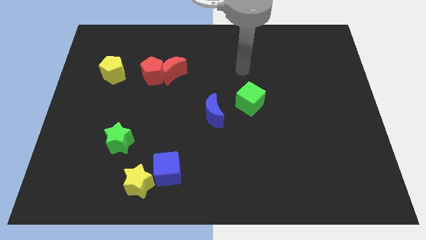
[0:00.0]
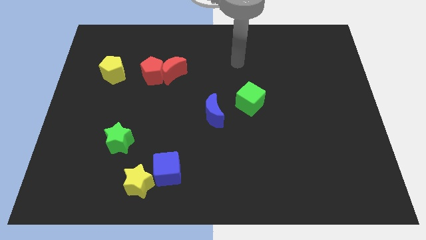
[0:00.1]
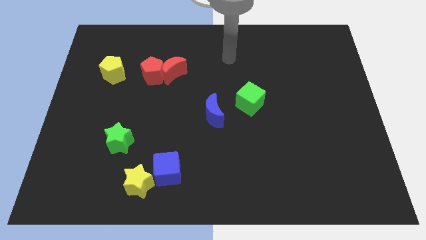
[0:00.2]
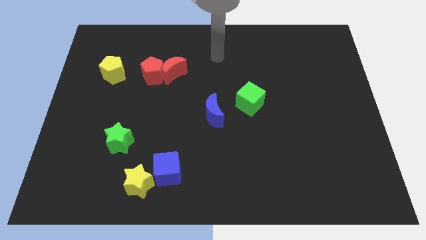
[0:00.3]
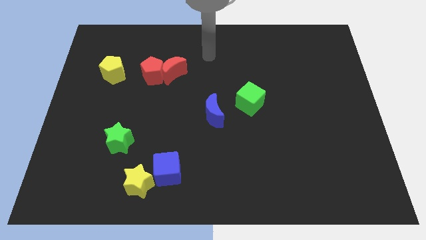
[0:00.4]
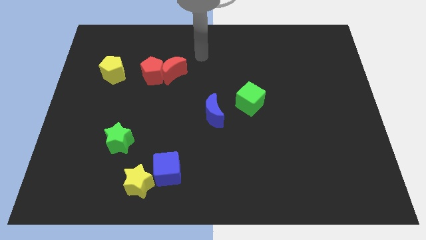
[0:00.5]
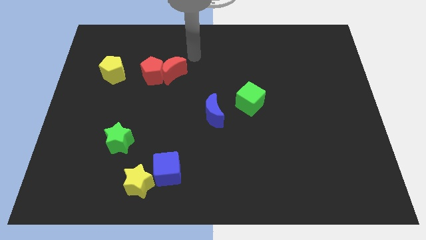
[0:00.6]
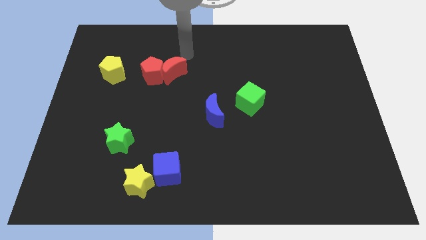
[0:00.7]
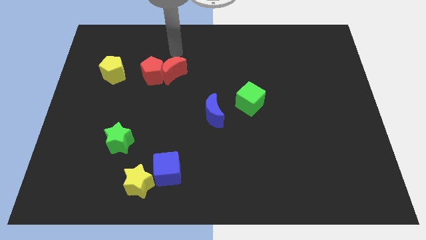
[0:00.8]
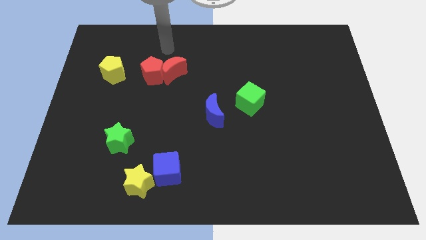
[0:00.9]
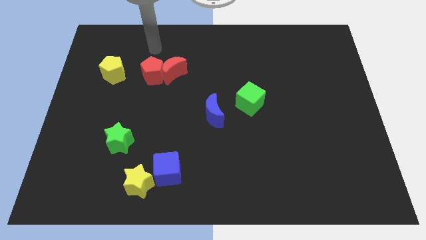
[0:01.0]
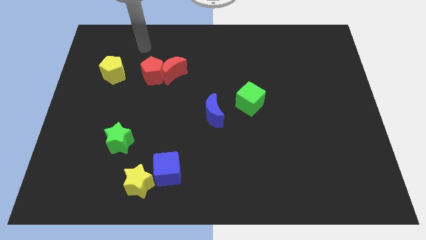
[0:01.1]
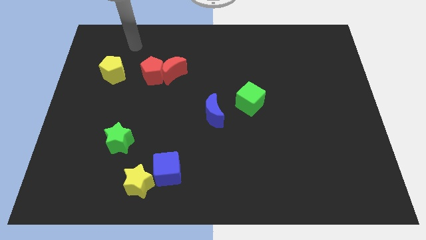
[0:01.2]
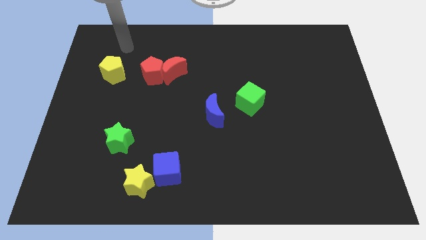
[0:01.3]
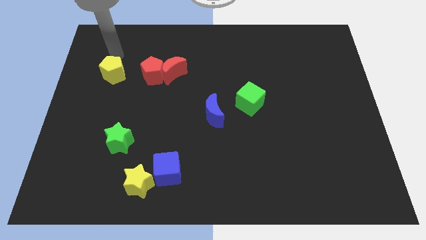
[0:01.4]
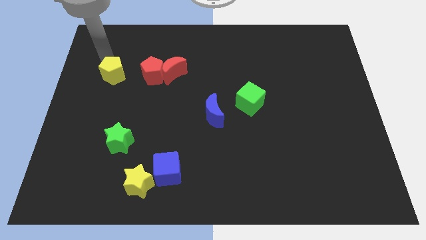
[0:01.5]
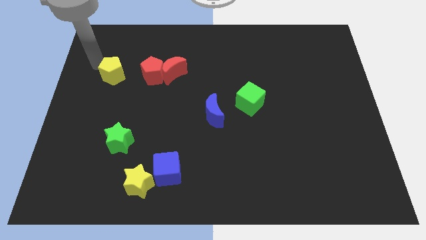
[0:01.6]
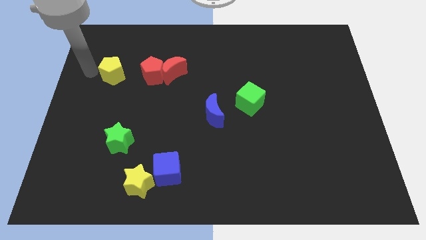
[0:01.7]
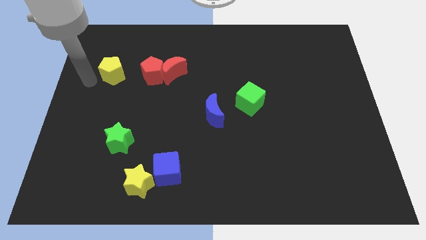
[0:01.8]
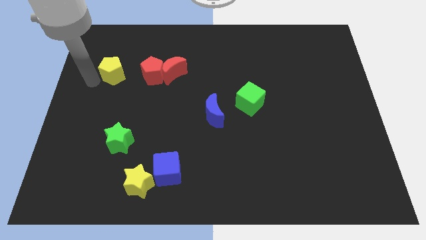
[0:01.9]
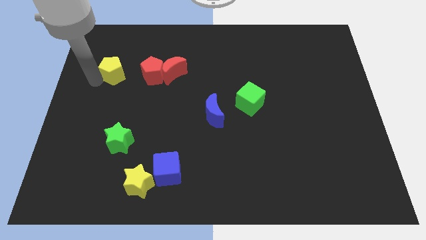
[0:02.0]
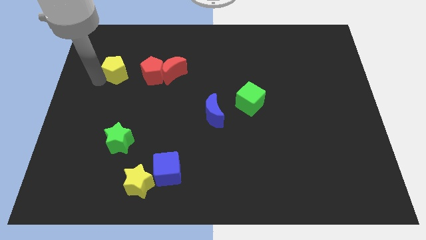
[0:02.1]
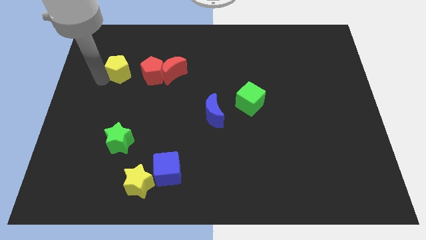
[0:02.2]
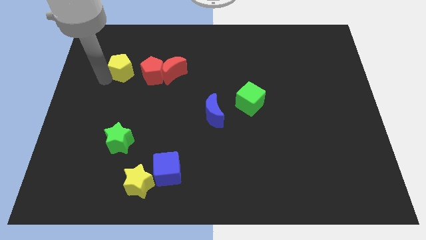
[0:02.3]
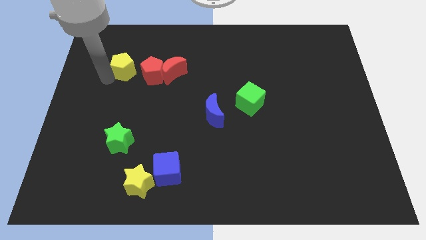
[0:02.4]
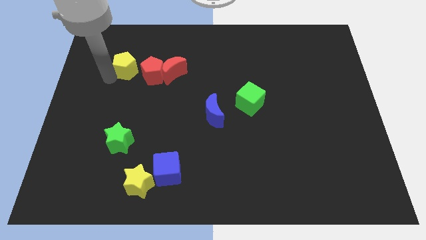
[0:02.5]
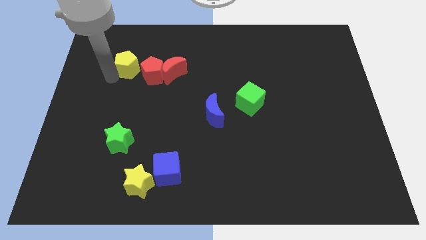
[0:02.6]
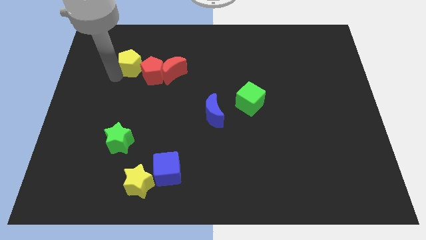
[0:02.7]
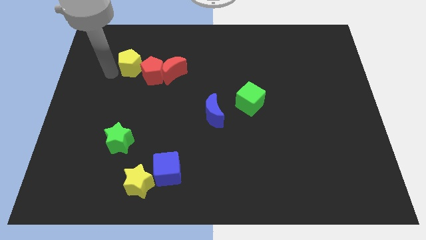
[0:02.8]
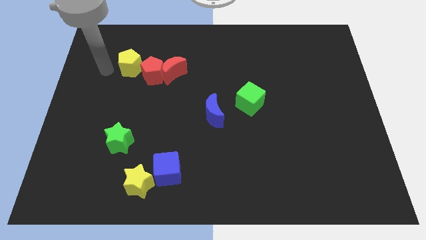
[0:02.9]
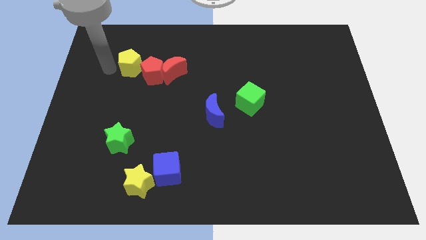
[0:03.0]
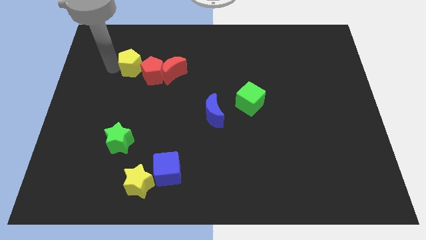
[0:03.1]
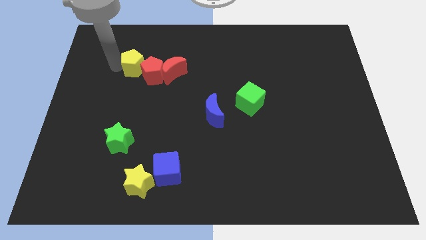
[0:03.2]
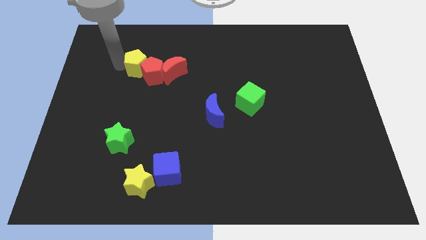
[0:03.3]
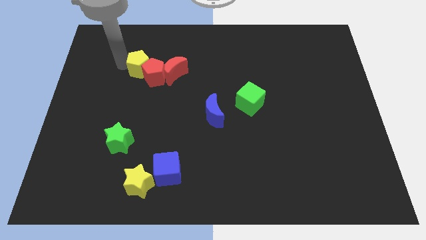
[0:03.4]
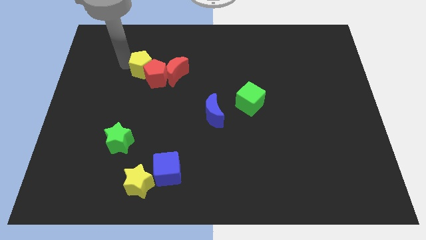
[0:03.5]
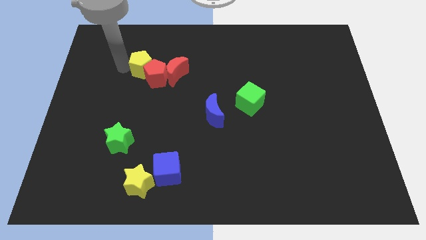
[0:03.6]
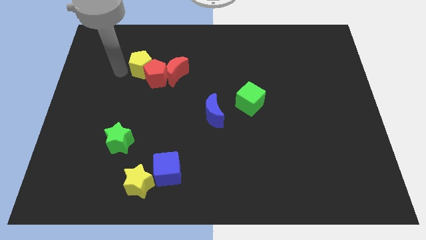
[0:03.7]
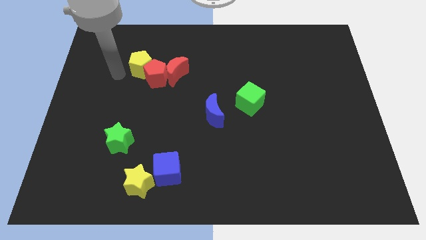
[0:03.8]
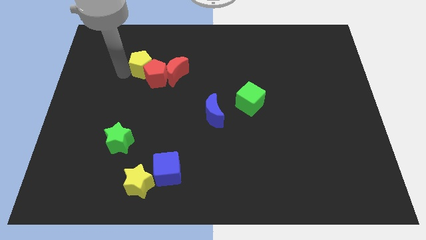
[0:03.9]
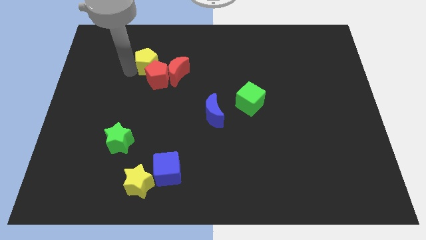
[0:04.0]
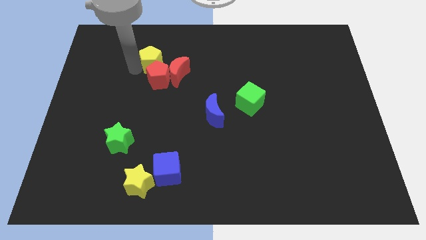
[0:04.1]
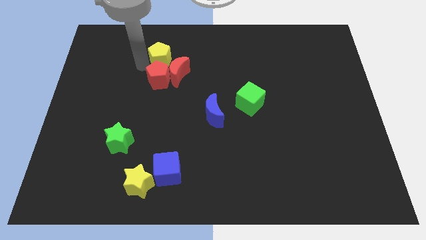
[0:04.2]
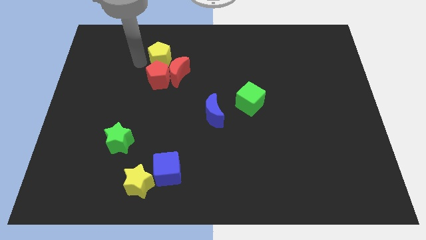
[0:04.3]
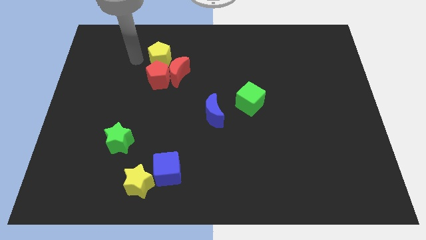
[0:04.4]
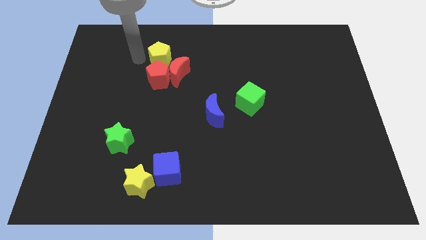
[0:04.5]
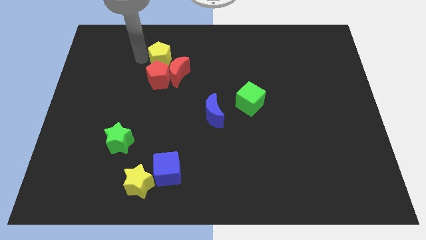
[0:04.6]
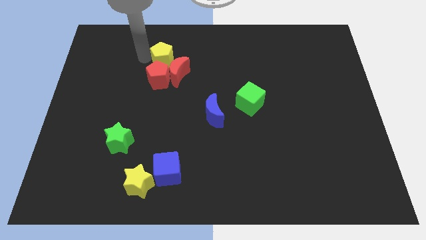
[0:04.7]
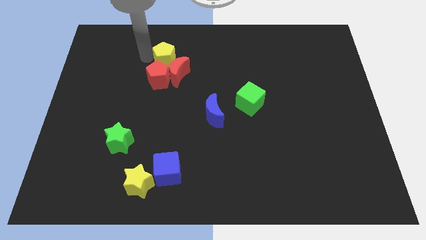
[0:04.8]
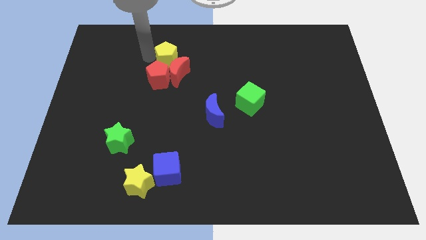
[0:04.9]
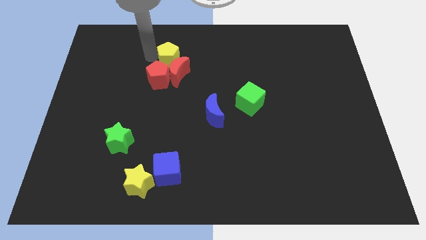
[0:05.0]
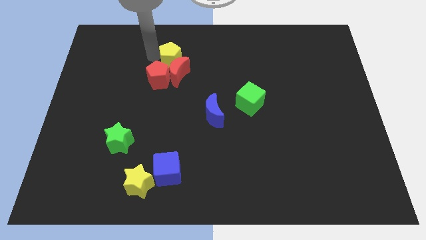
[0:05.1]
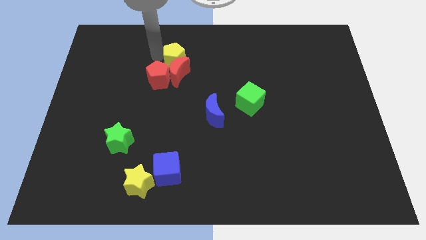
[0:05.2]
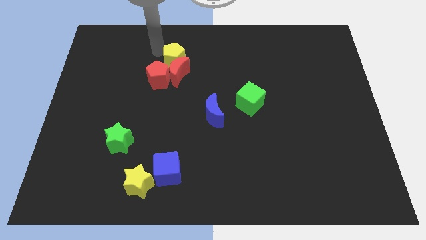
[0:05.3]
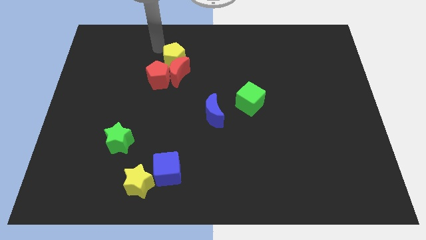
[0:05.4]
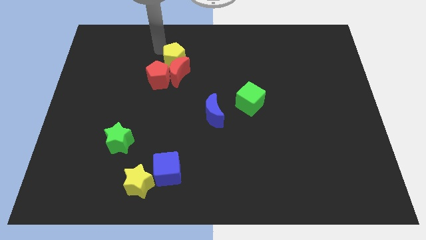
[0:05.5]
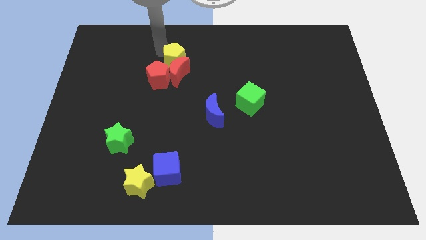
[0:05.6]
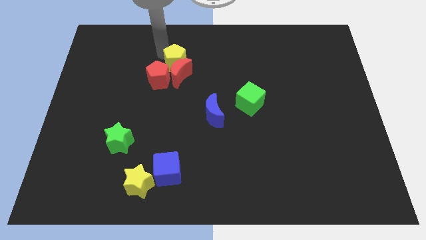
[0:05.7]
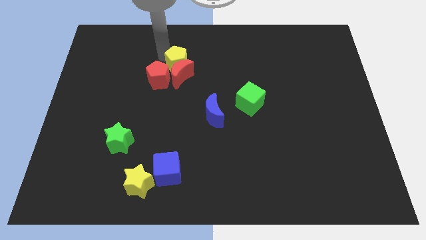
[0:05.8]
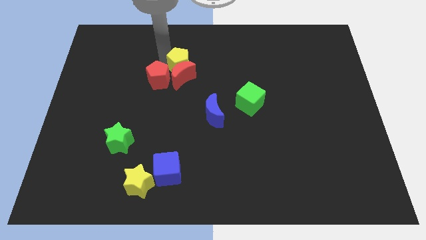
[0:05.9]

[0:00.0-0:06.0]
put the yellow pentagon just right of the red pentagon

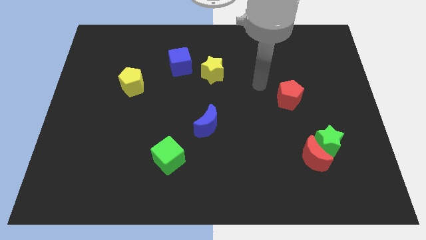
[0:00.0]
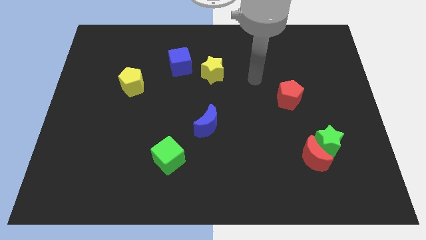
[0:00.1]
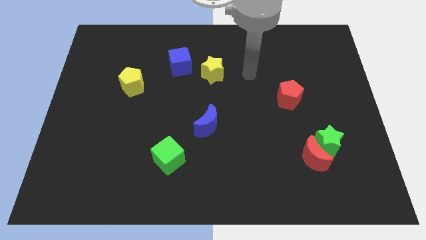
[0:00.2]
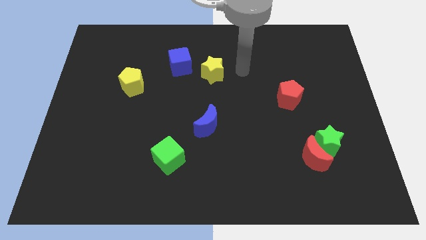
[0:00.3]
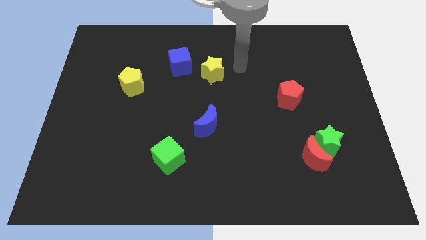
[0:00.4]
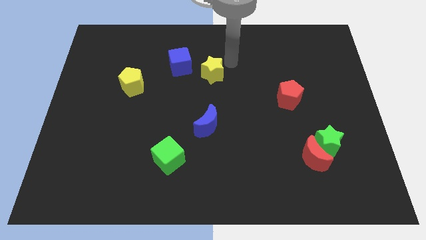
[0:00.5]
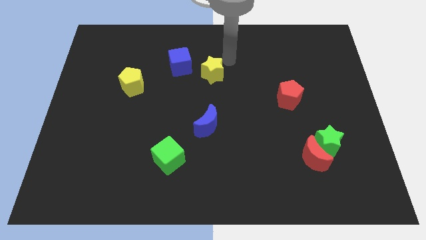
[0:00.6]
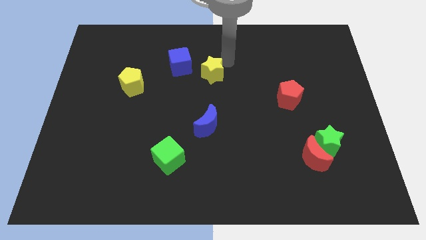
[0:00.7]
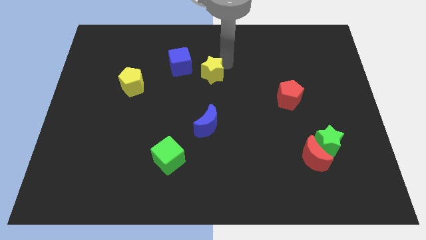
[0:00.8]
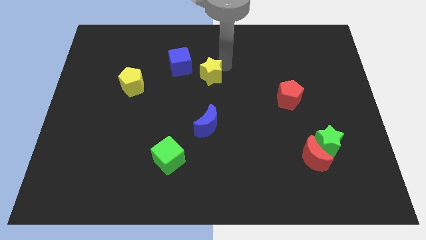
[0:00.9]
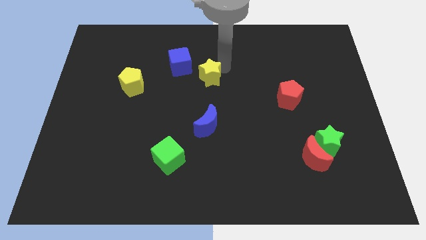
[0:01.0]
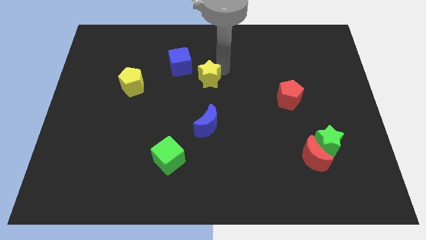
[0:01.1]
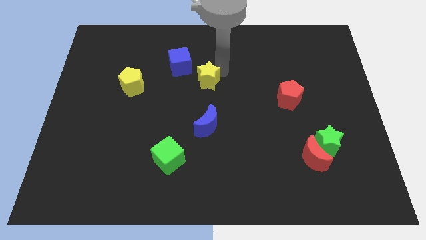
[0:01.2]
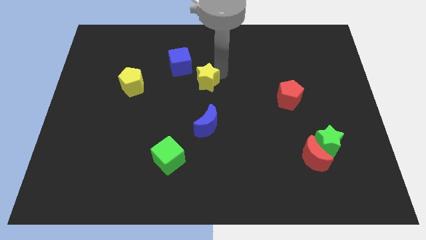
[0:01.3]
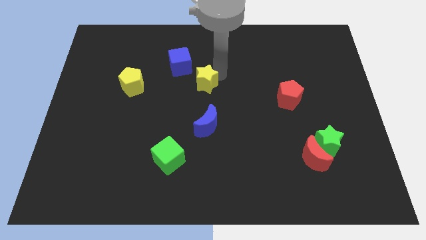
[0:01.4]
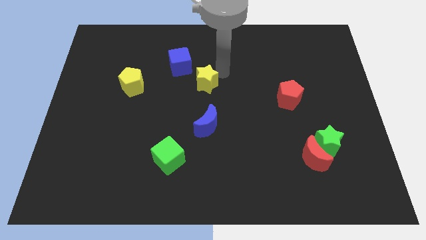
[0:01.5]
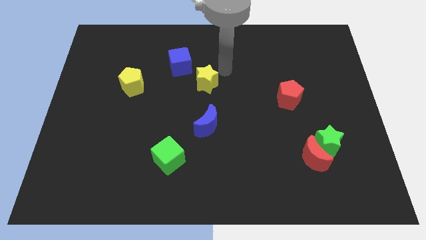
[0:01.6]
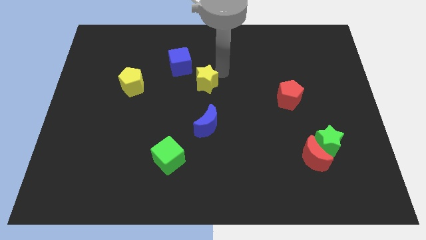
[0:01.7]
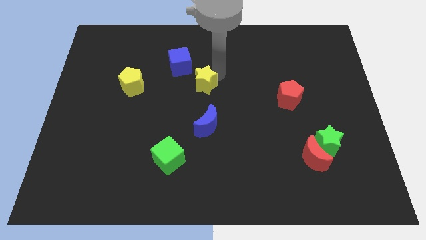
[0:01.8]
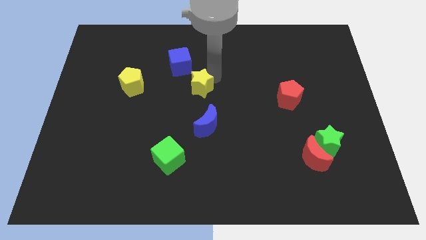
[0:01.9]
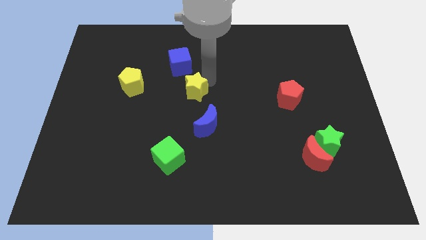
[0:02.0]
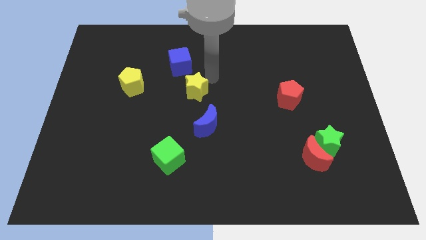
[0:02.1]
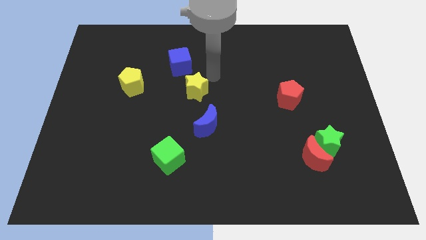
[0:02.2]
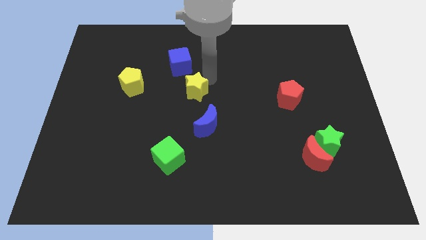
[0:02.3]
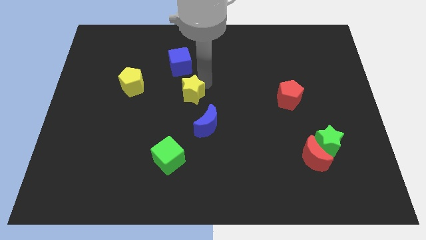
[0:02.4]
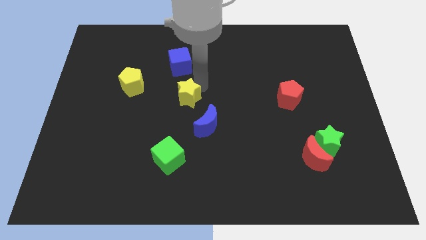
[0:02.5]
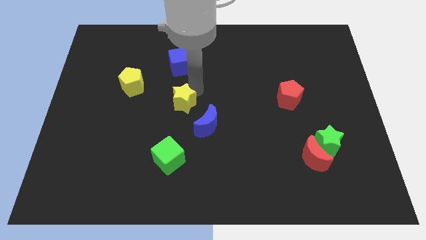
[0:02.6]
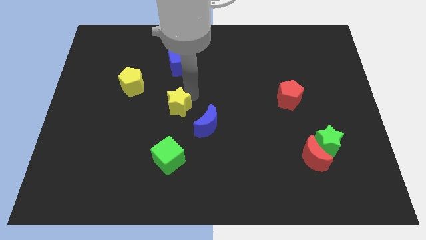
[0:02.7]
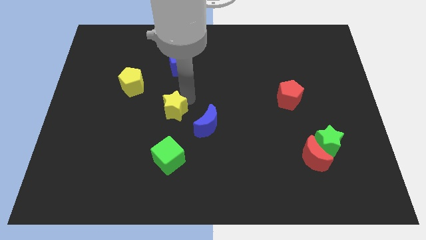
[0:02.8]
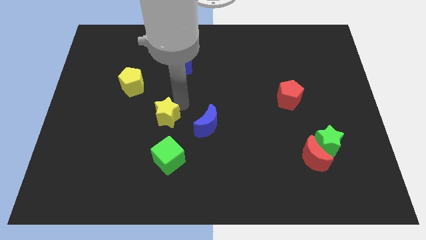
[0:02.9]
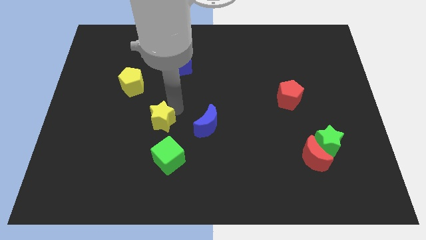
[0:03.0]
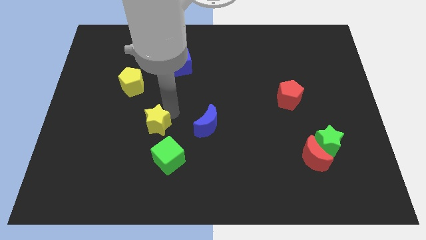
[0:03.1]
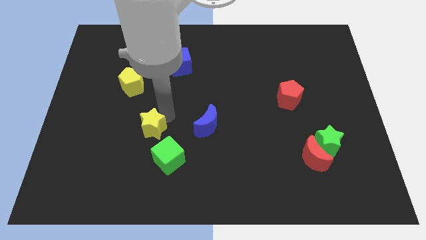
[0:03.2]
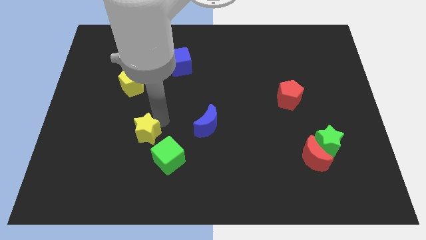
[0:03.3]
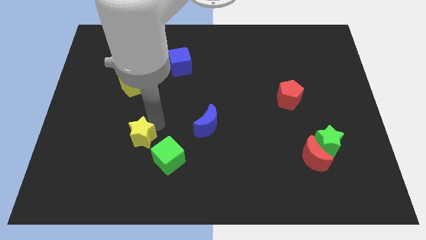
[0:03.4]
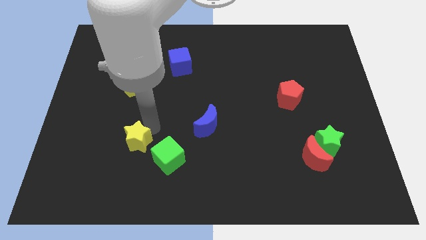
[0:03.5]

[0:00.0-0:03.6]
slide the yellow star just left of the green cube
